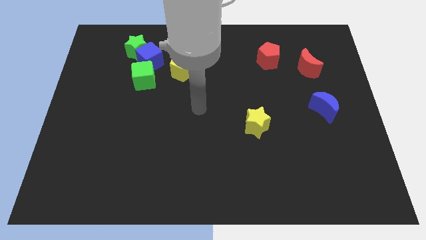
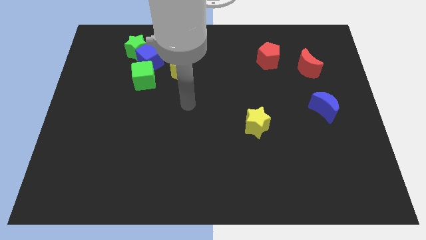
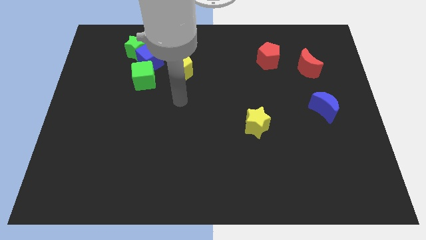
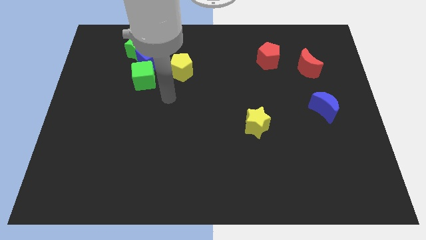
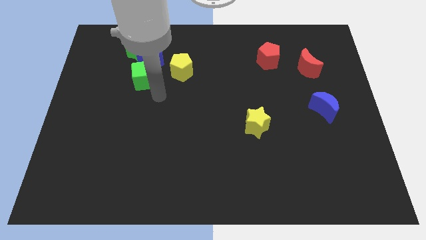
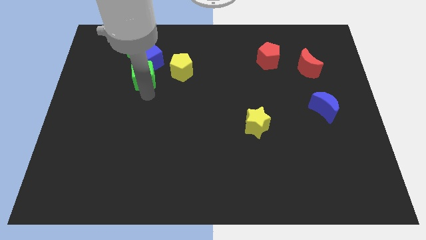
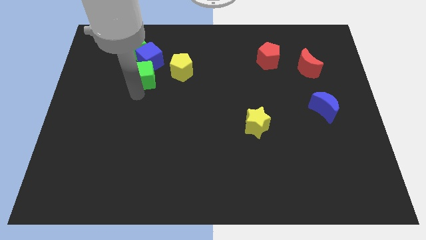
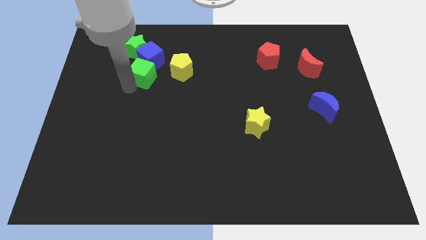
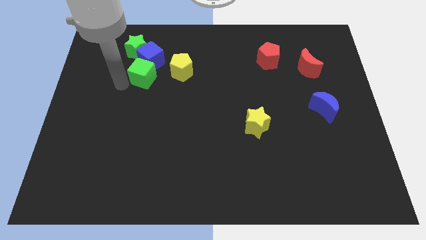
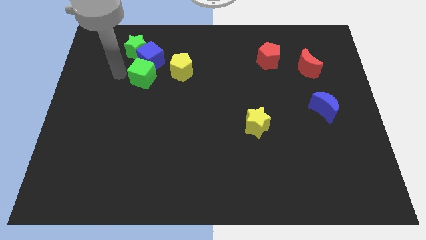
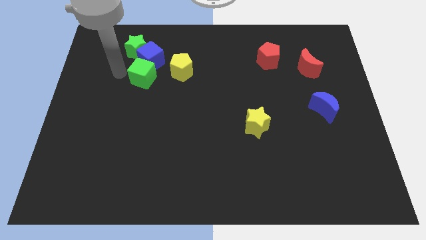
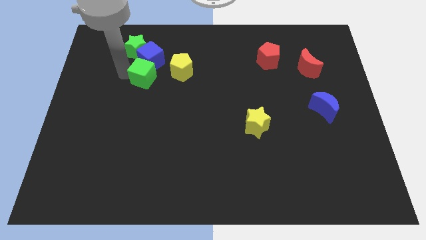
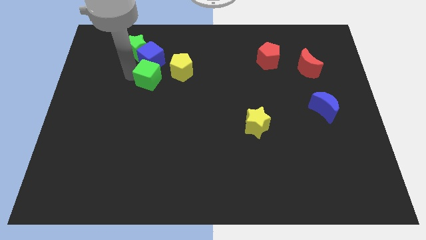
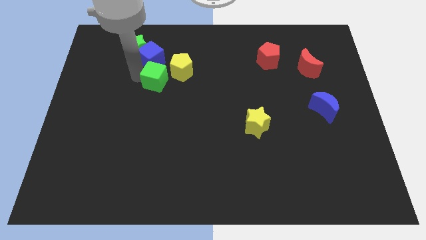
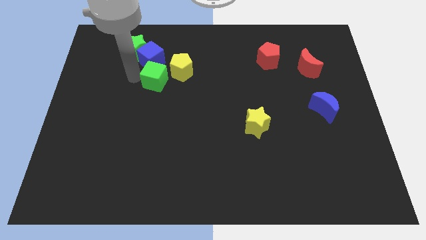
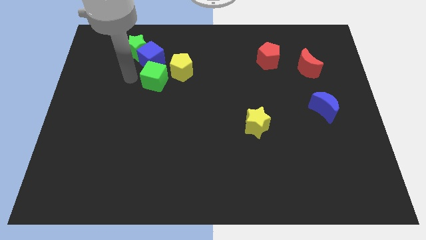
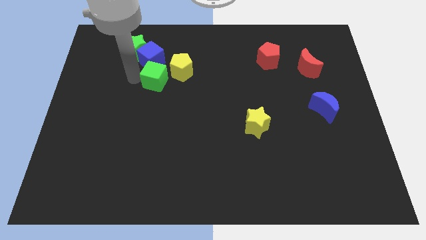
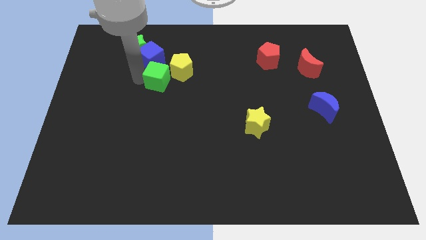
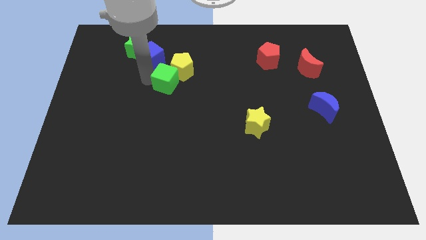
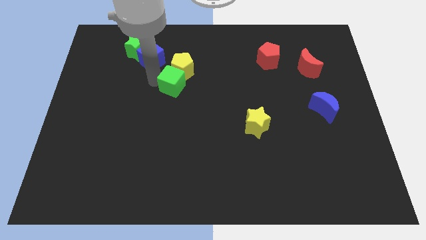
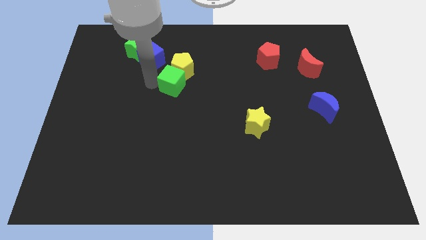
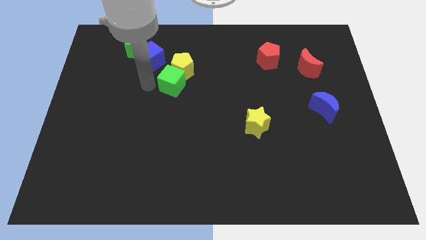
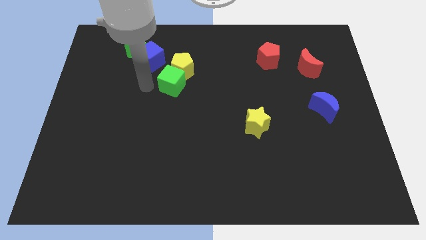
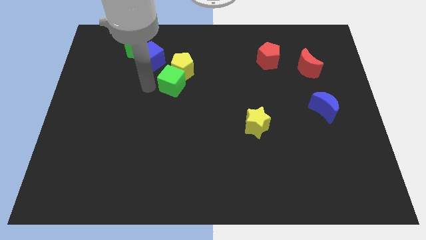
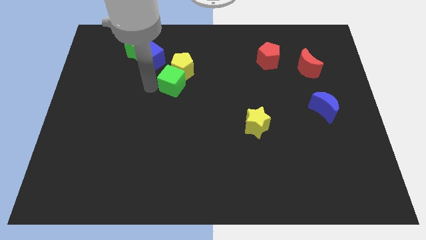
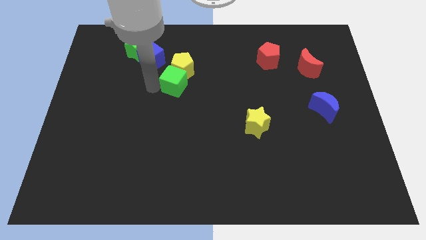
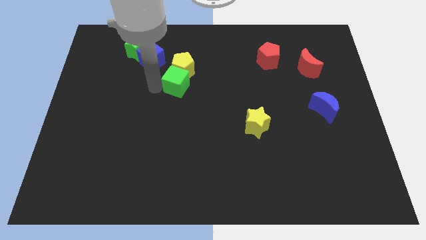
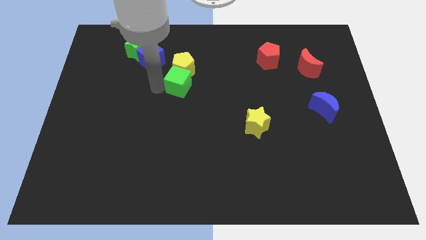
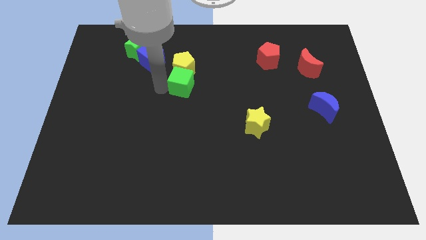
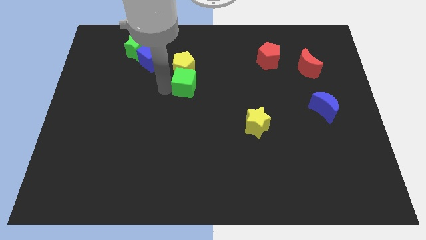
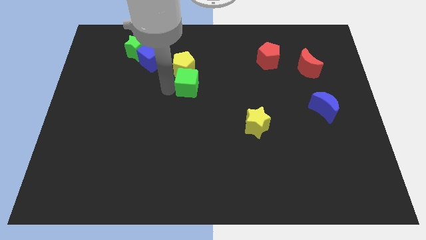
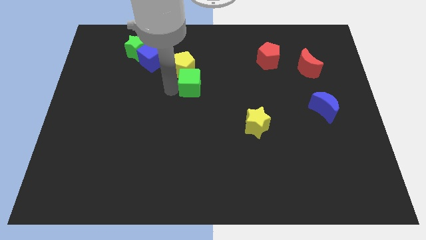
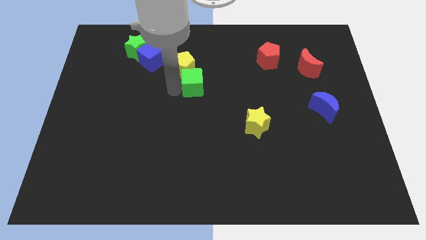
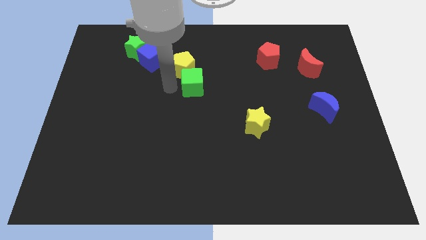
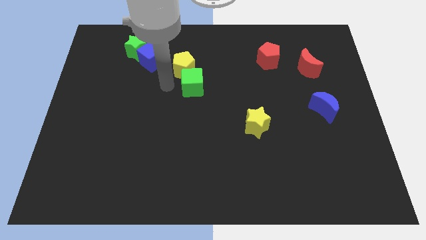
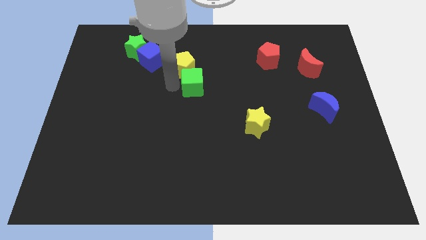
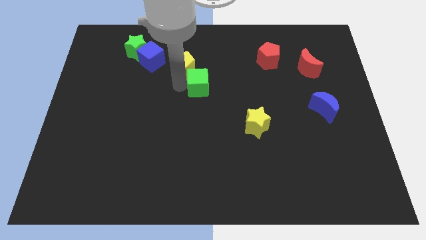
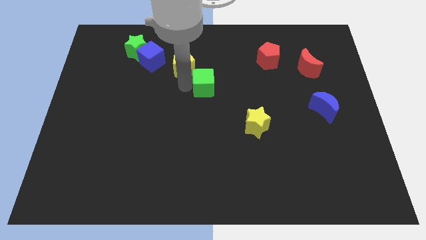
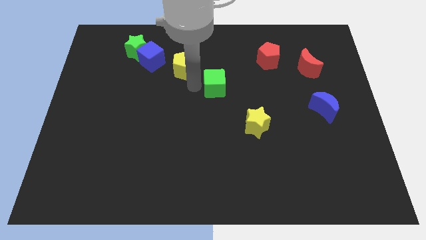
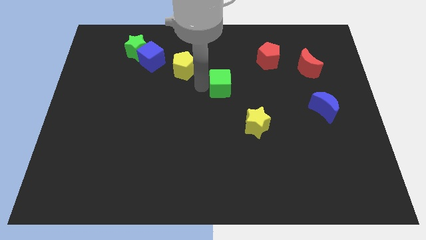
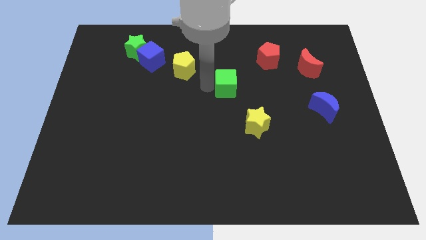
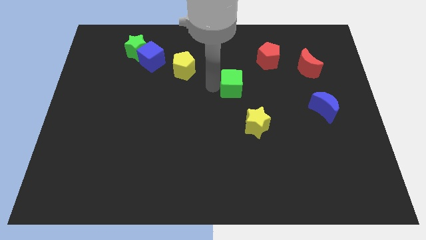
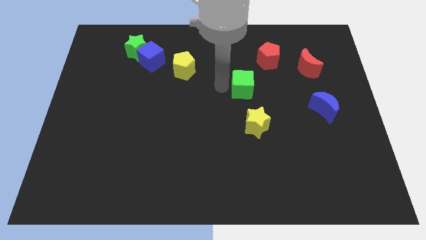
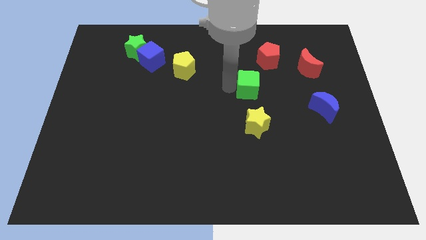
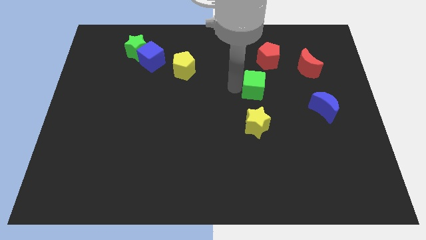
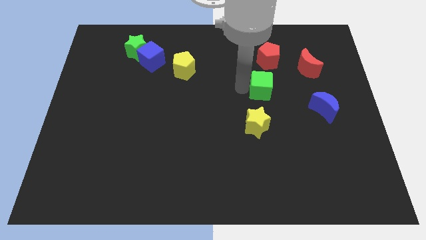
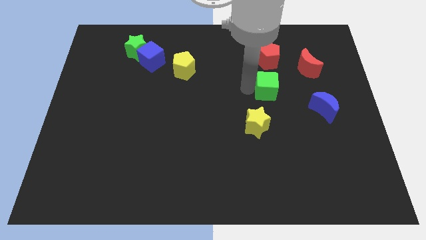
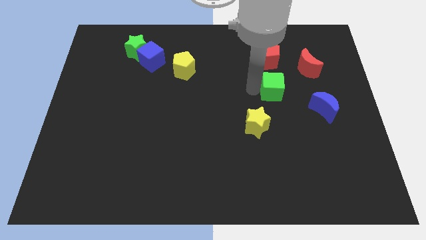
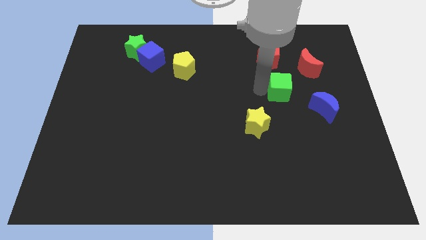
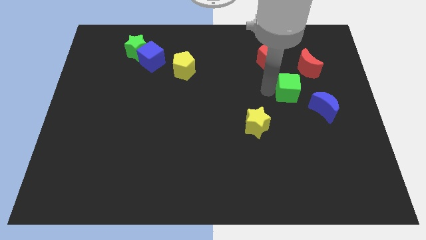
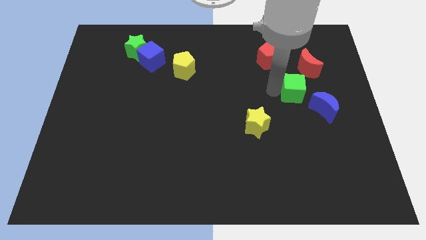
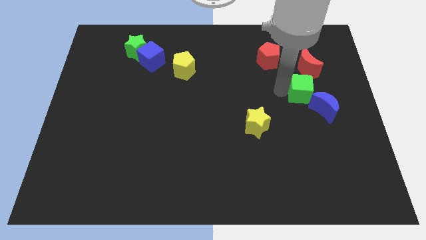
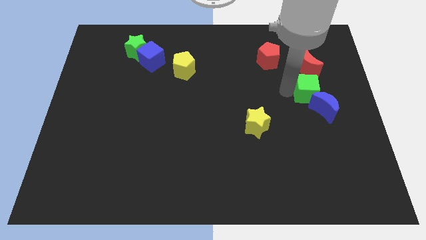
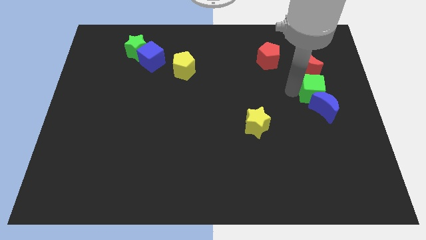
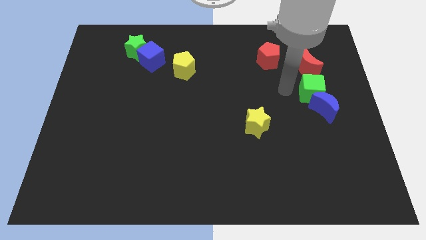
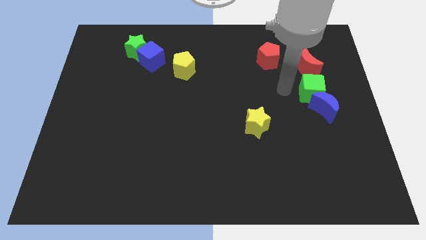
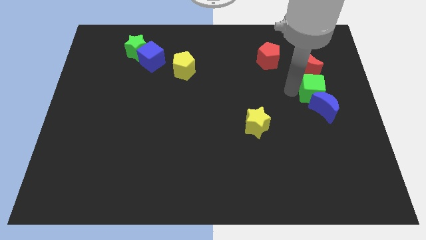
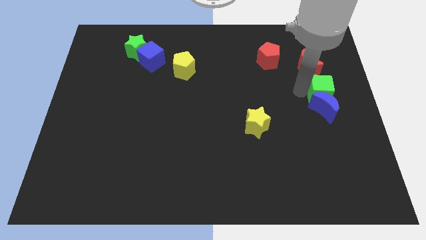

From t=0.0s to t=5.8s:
push the green cube to the right side of the board
